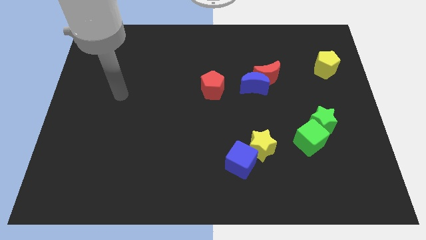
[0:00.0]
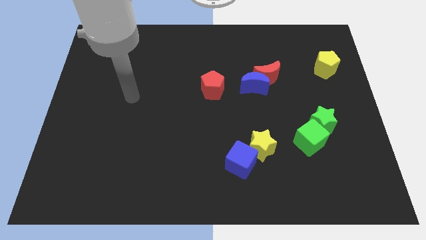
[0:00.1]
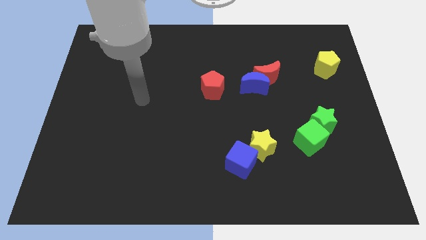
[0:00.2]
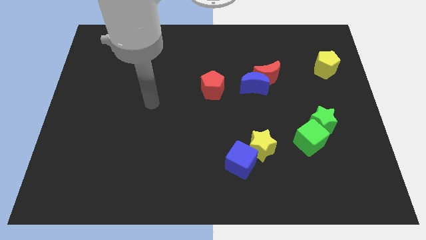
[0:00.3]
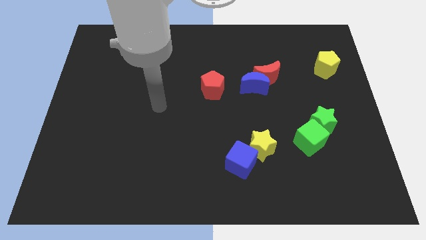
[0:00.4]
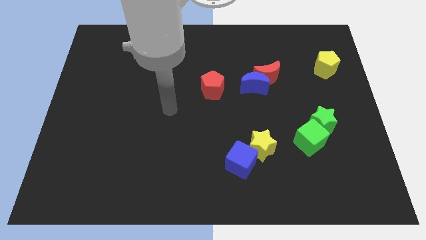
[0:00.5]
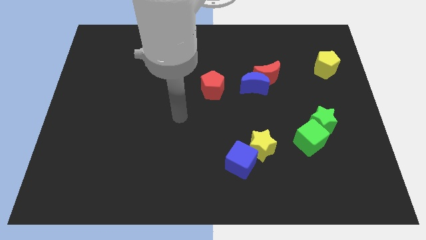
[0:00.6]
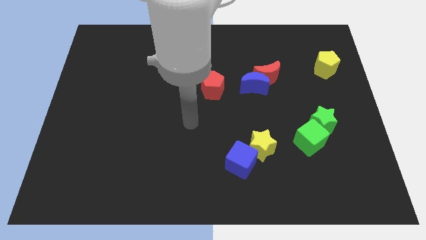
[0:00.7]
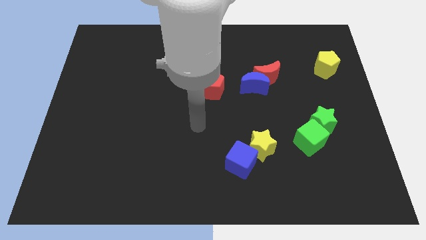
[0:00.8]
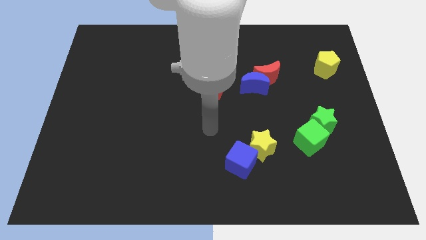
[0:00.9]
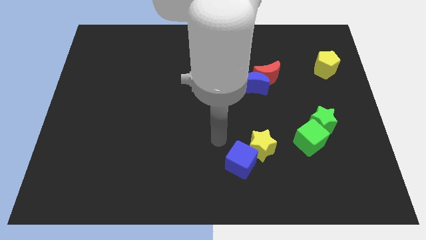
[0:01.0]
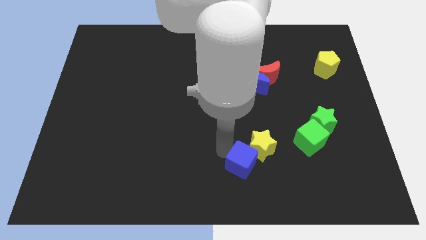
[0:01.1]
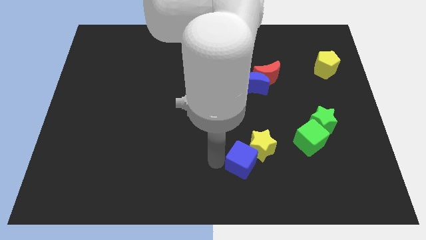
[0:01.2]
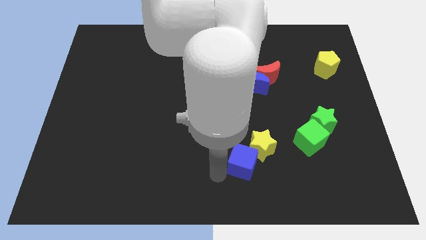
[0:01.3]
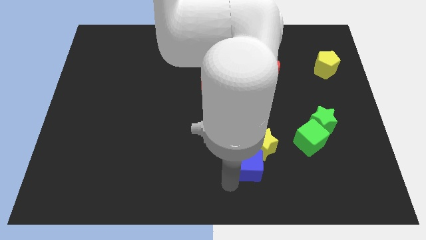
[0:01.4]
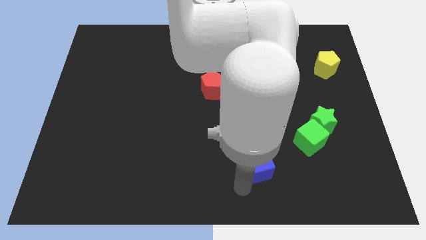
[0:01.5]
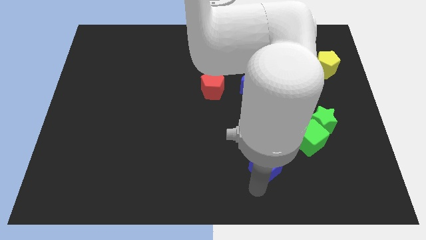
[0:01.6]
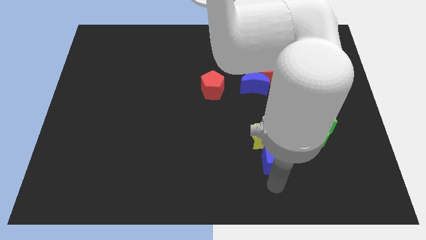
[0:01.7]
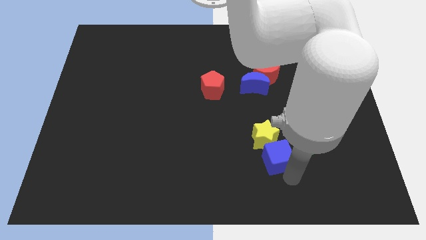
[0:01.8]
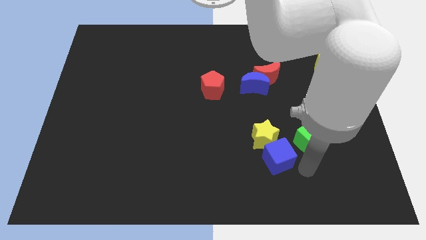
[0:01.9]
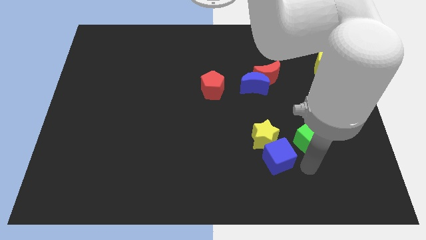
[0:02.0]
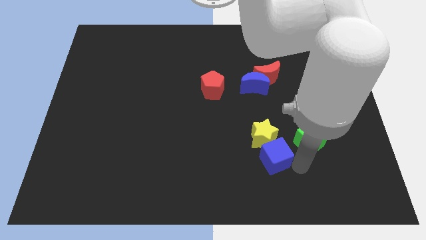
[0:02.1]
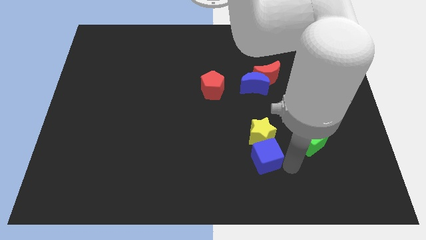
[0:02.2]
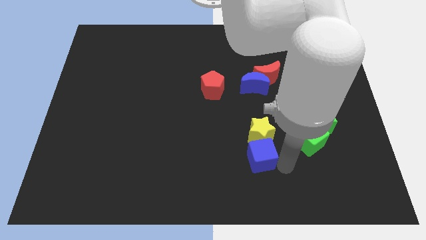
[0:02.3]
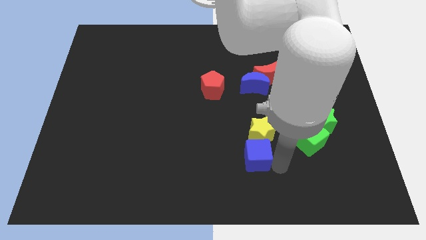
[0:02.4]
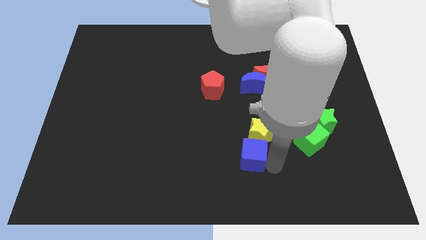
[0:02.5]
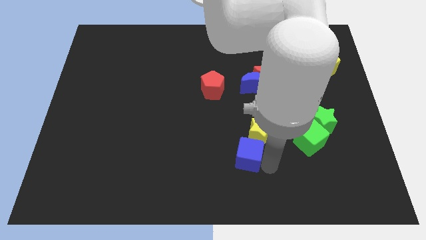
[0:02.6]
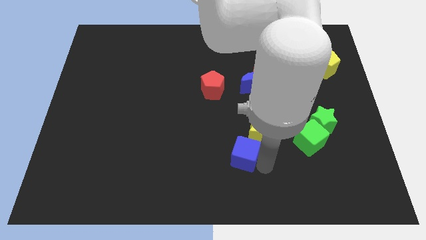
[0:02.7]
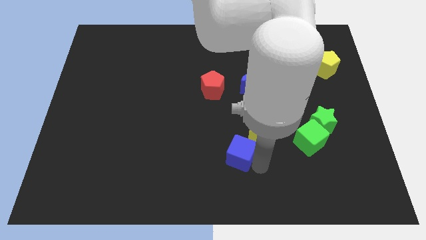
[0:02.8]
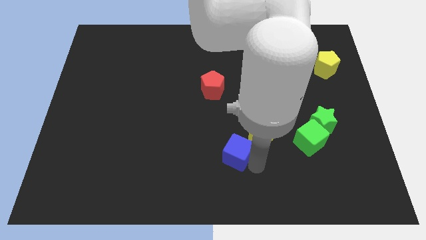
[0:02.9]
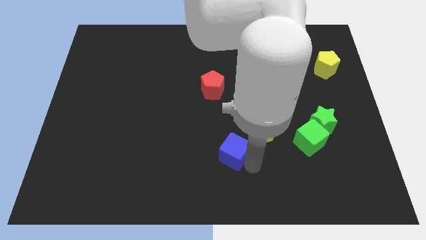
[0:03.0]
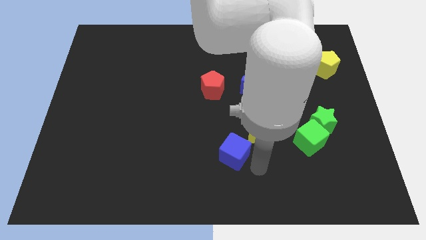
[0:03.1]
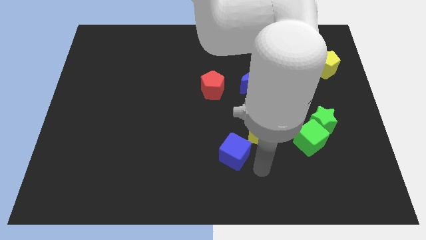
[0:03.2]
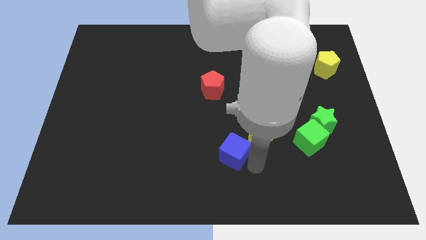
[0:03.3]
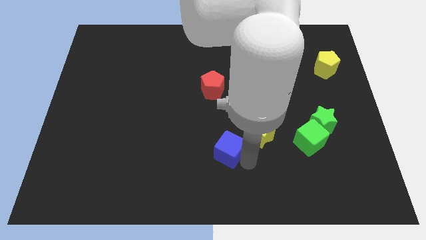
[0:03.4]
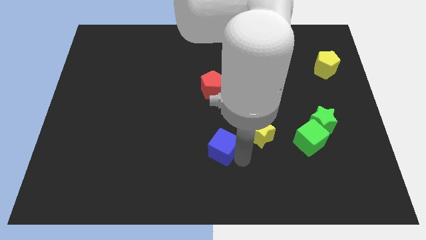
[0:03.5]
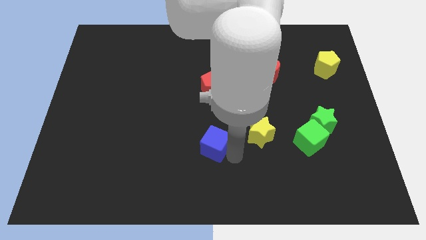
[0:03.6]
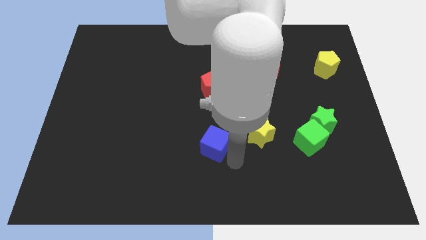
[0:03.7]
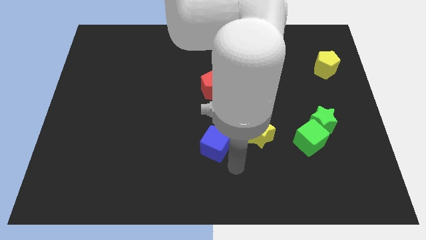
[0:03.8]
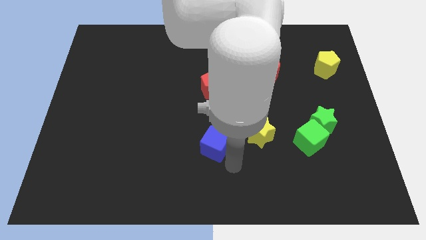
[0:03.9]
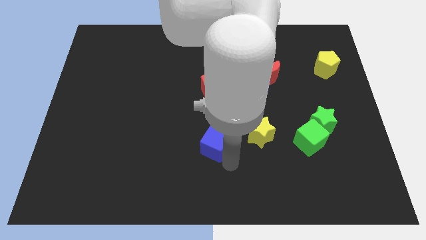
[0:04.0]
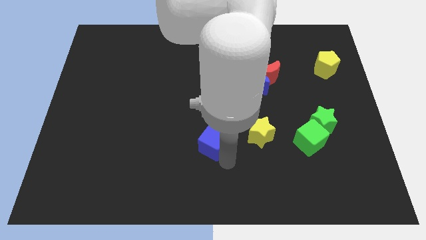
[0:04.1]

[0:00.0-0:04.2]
push the blue cube slightly up and to the left

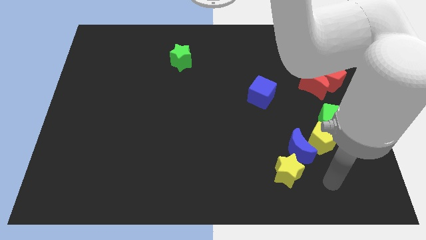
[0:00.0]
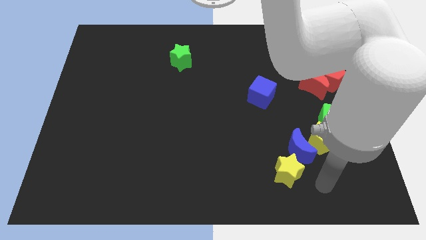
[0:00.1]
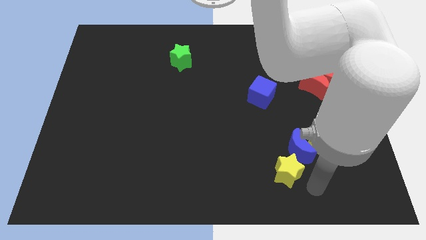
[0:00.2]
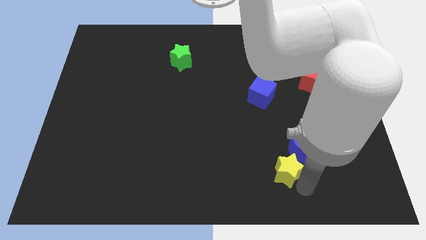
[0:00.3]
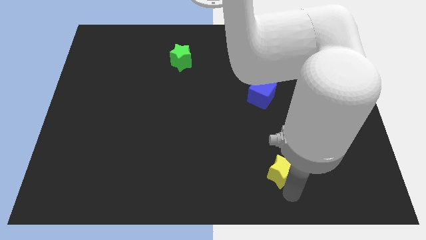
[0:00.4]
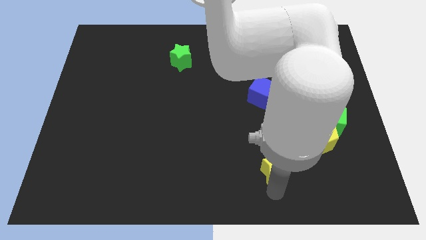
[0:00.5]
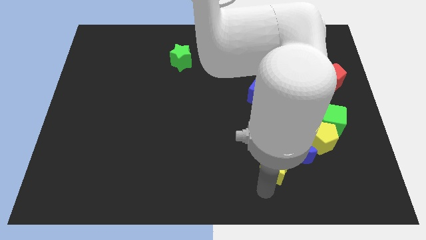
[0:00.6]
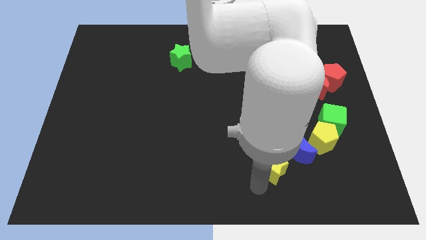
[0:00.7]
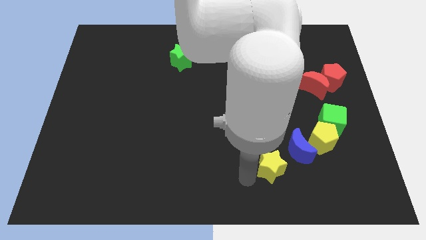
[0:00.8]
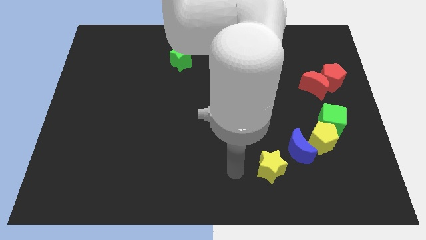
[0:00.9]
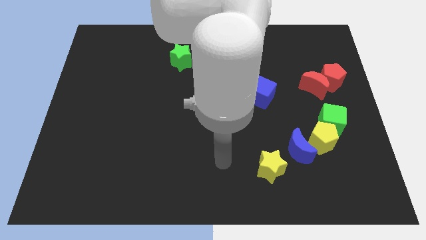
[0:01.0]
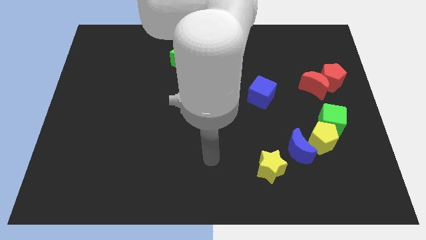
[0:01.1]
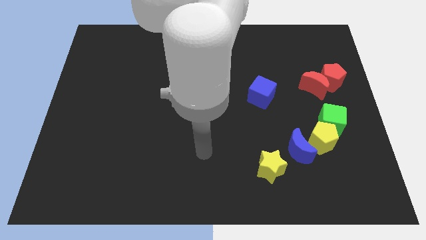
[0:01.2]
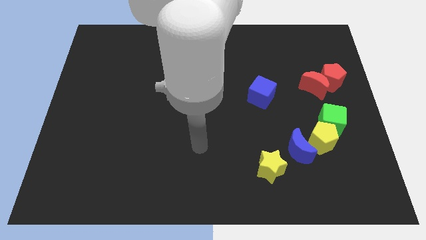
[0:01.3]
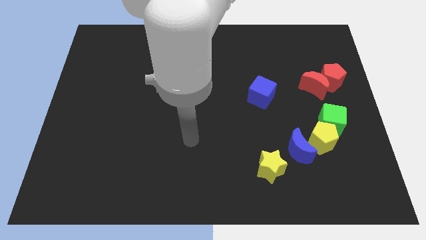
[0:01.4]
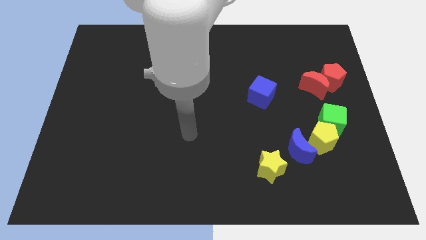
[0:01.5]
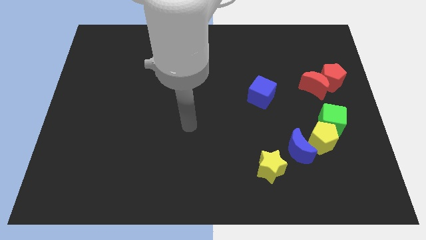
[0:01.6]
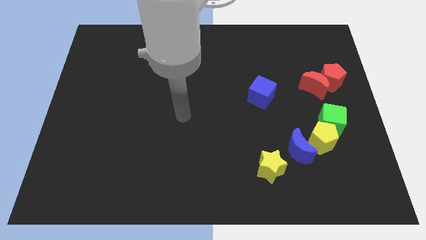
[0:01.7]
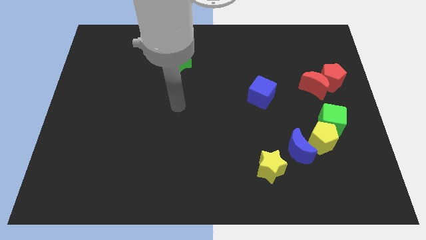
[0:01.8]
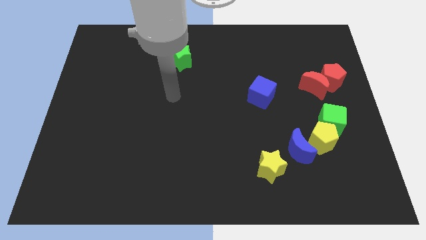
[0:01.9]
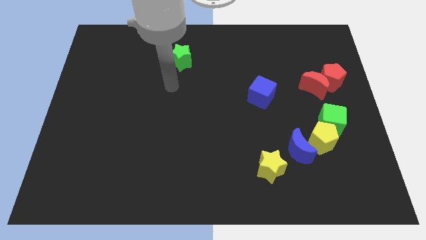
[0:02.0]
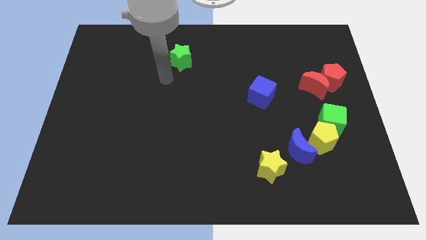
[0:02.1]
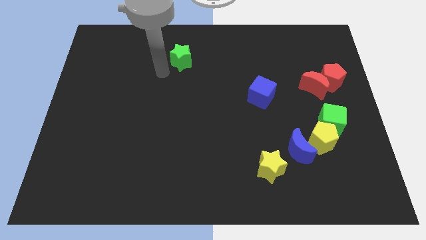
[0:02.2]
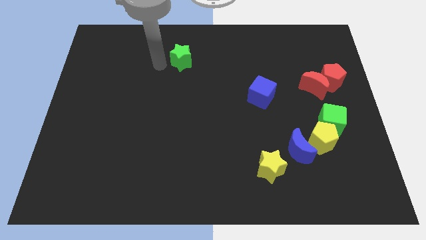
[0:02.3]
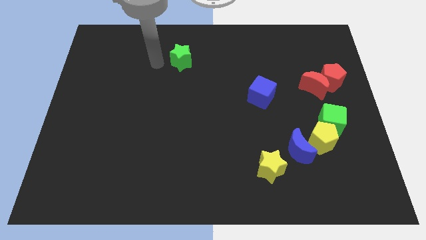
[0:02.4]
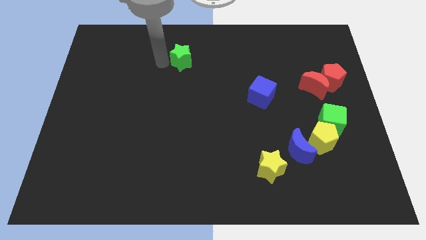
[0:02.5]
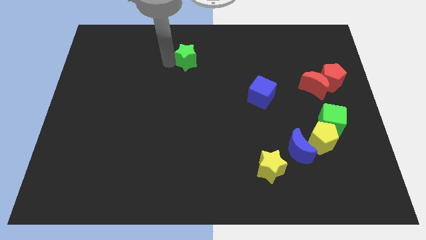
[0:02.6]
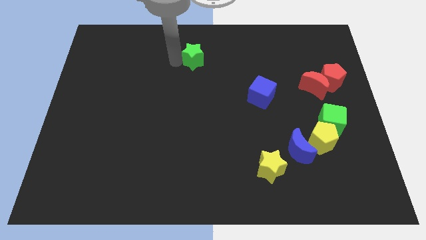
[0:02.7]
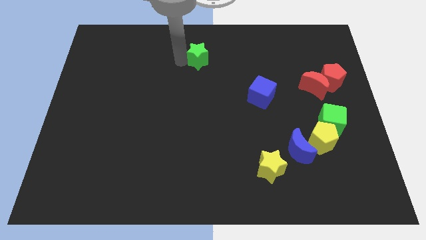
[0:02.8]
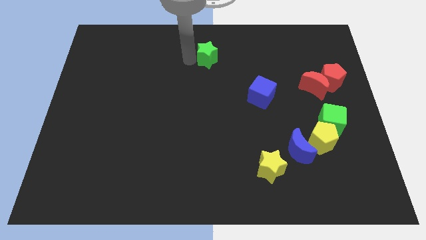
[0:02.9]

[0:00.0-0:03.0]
push the green star to the right a little

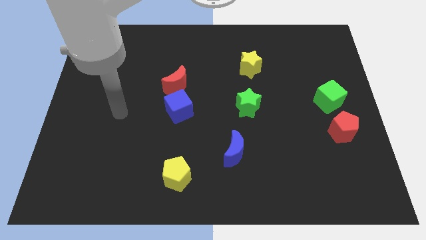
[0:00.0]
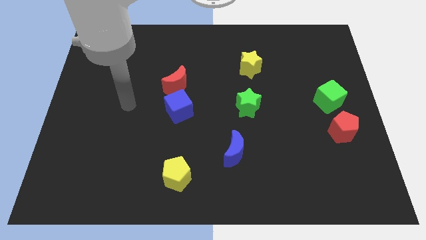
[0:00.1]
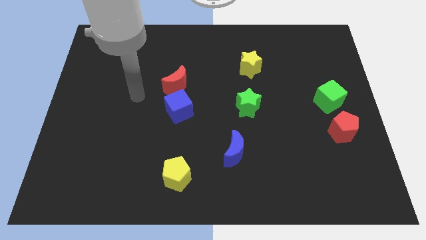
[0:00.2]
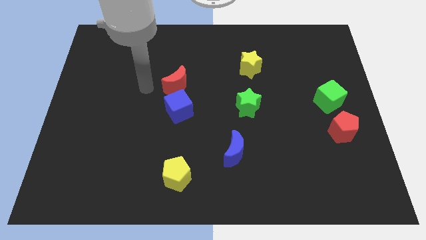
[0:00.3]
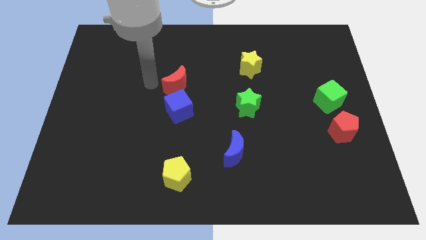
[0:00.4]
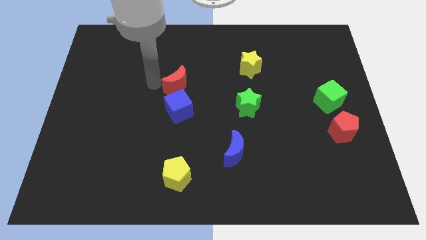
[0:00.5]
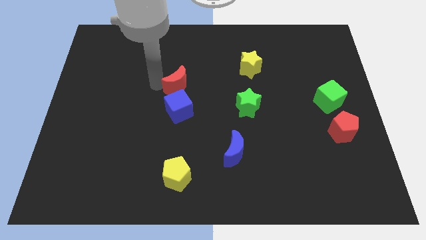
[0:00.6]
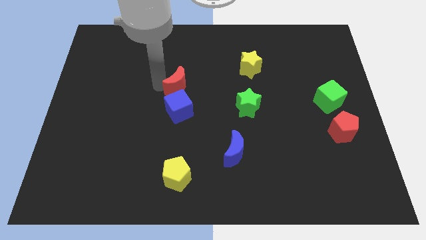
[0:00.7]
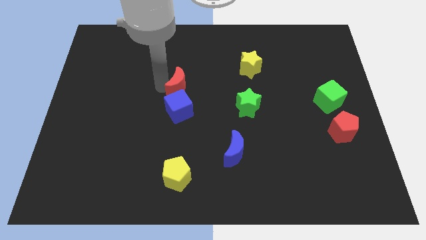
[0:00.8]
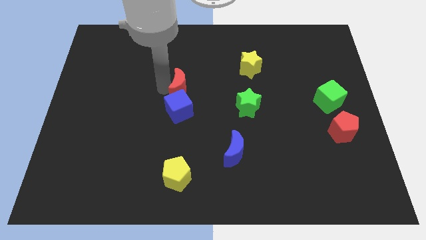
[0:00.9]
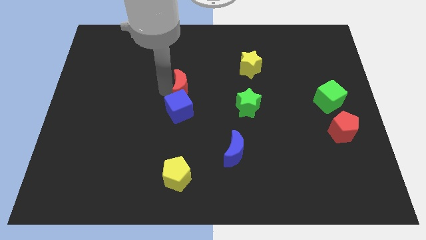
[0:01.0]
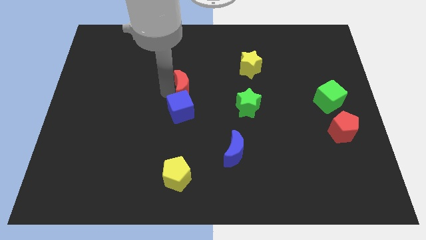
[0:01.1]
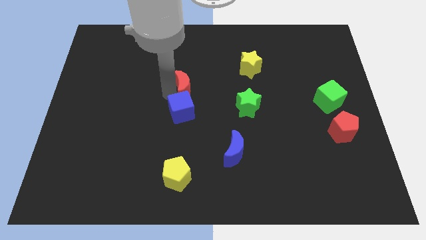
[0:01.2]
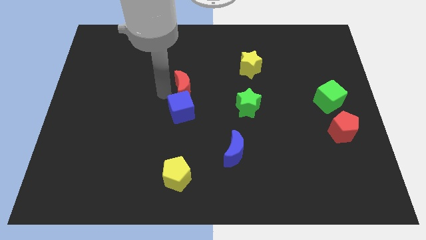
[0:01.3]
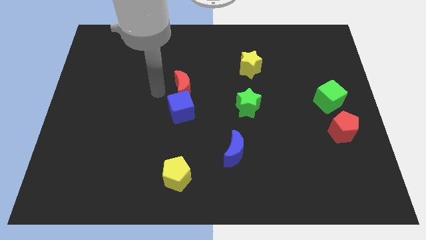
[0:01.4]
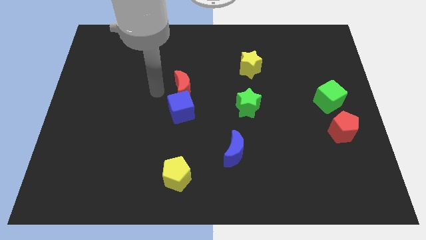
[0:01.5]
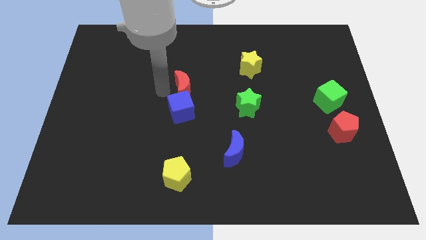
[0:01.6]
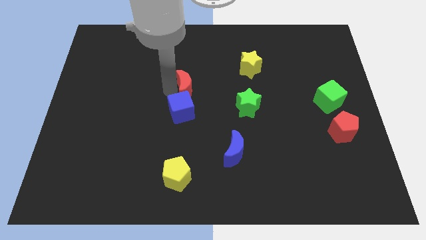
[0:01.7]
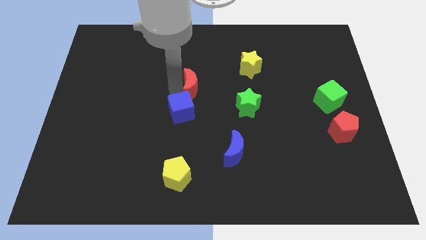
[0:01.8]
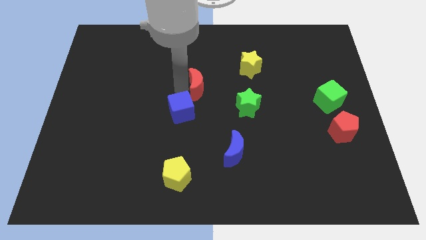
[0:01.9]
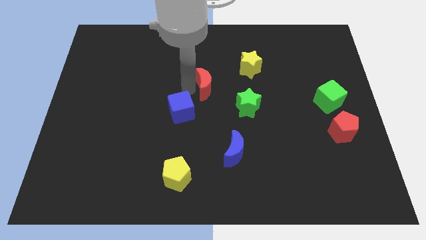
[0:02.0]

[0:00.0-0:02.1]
slightly move the red moon to the right
